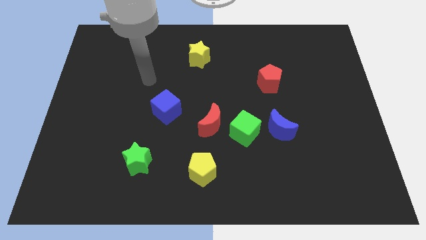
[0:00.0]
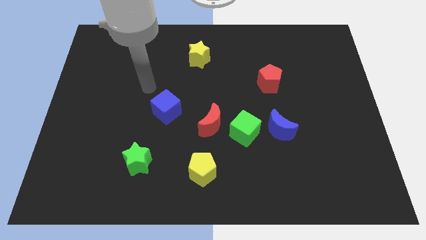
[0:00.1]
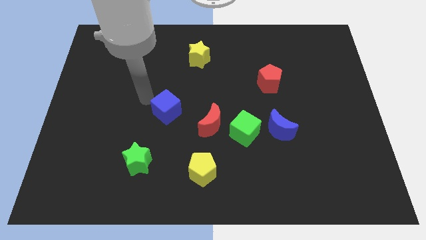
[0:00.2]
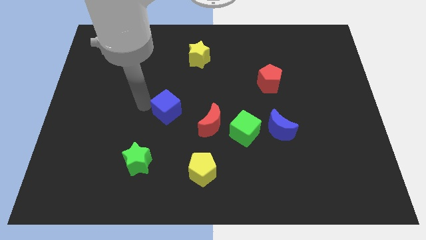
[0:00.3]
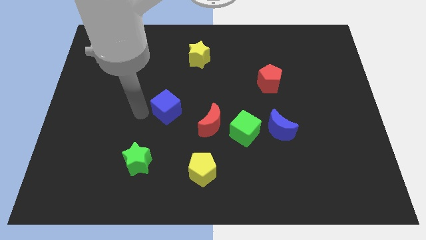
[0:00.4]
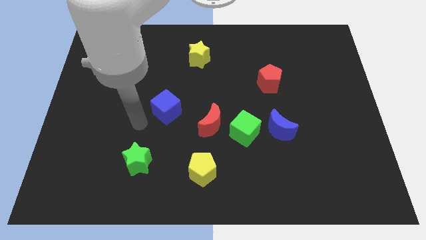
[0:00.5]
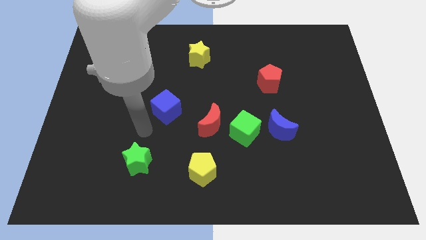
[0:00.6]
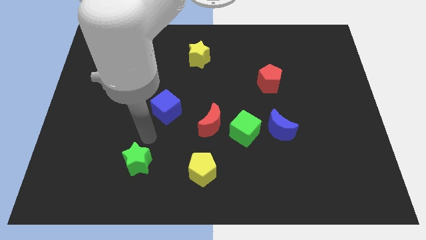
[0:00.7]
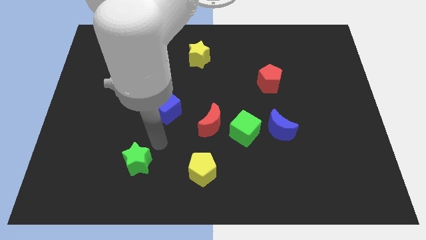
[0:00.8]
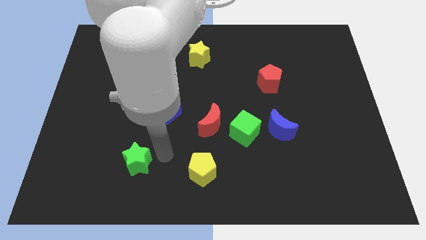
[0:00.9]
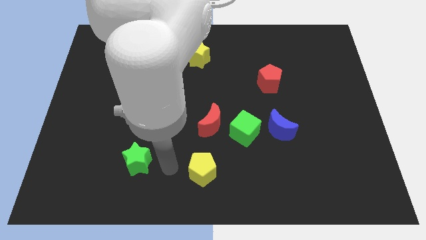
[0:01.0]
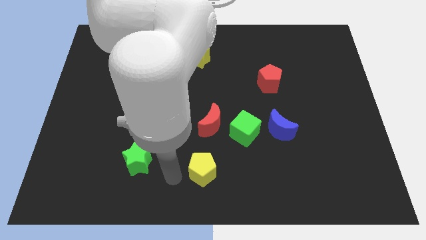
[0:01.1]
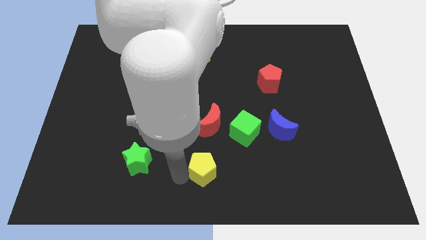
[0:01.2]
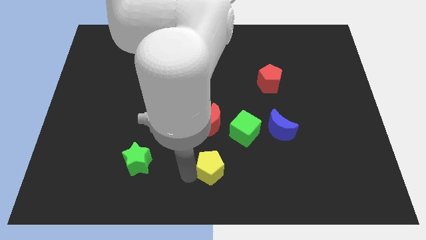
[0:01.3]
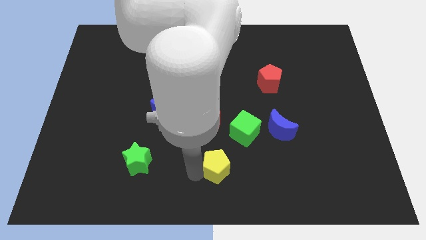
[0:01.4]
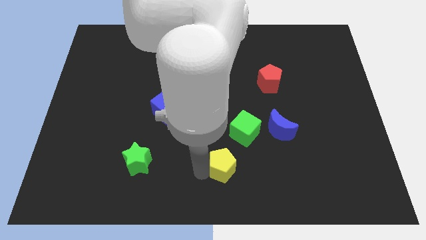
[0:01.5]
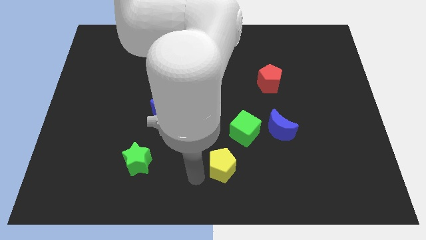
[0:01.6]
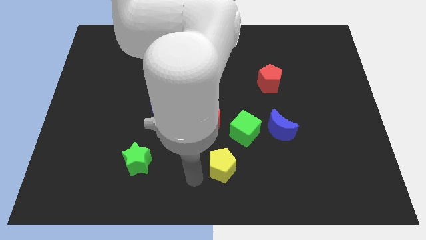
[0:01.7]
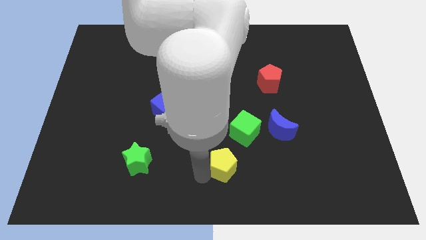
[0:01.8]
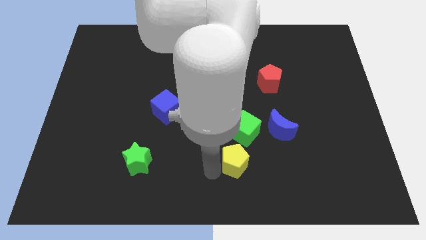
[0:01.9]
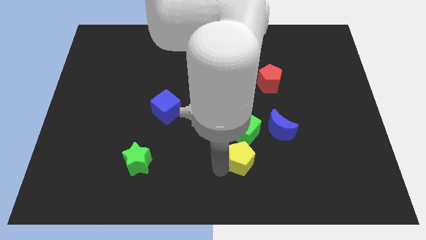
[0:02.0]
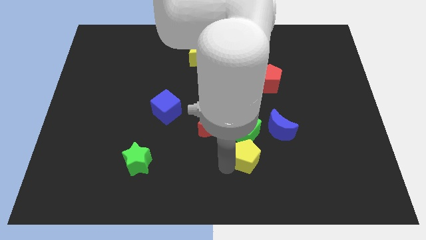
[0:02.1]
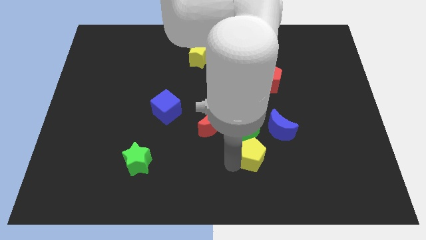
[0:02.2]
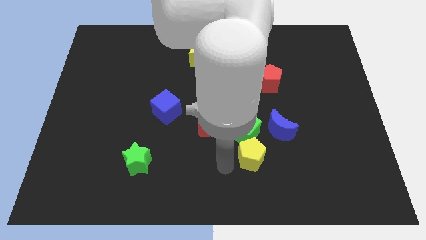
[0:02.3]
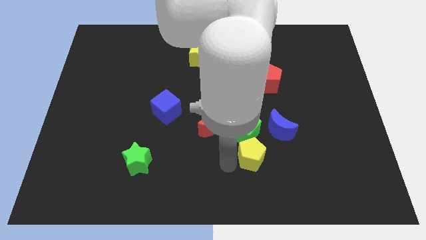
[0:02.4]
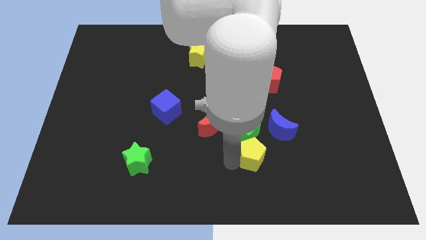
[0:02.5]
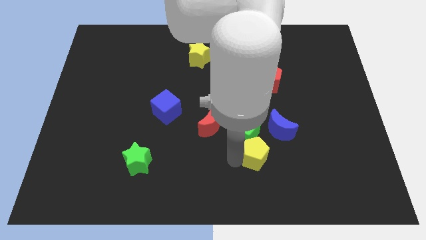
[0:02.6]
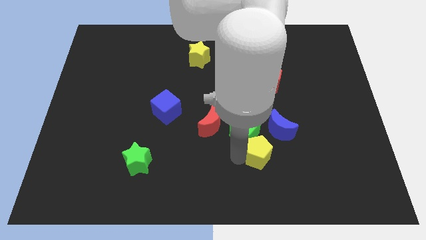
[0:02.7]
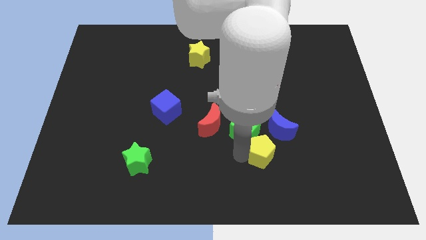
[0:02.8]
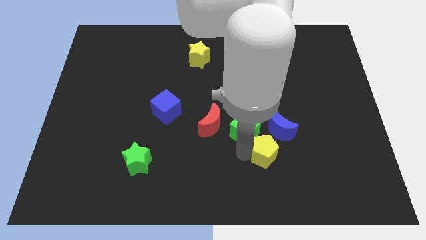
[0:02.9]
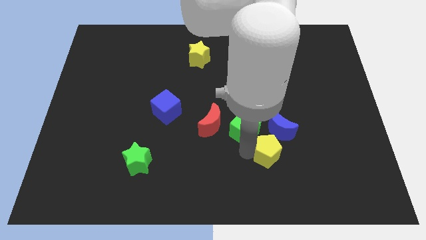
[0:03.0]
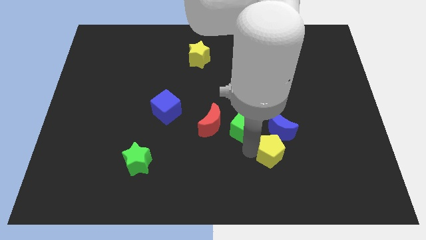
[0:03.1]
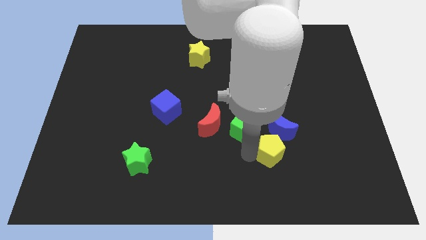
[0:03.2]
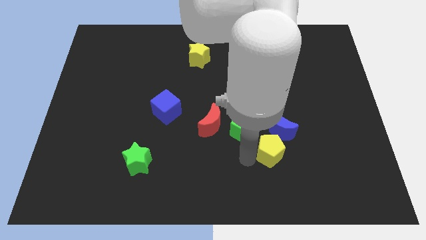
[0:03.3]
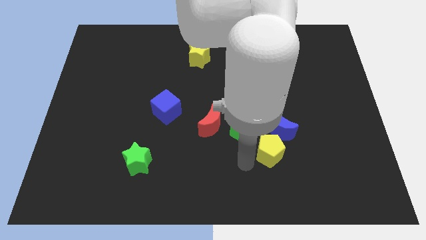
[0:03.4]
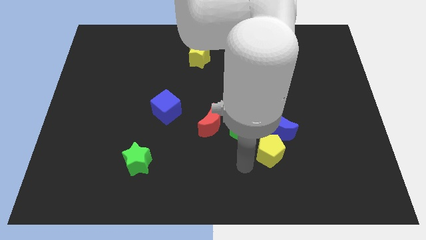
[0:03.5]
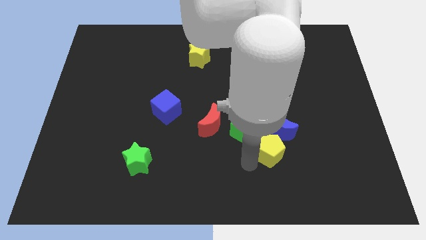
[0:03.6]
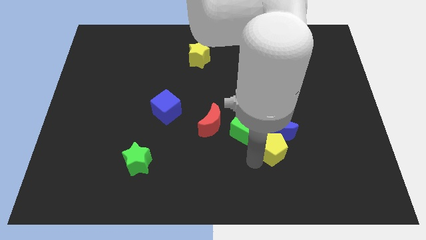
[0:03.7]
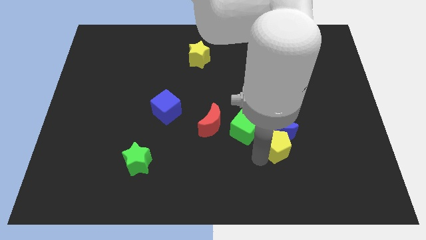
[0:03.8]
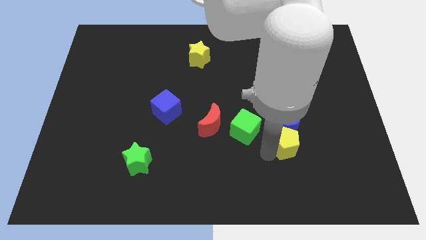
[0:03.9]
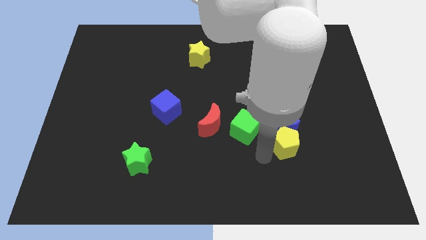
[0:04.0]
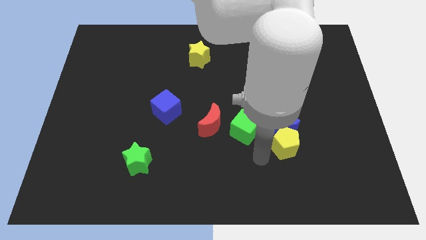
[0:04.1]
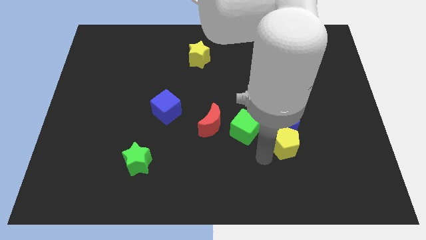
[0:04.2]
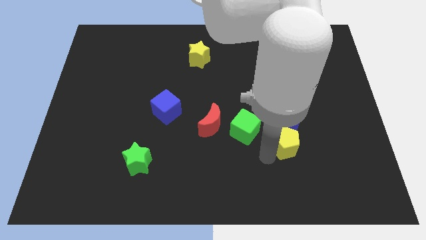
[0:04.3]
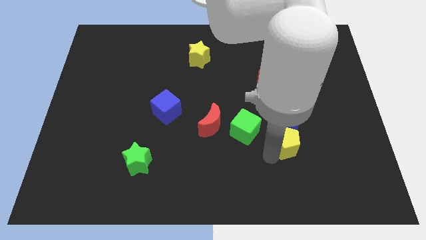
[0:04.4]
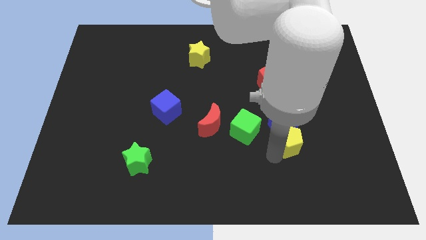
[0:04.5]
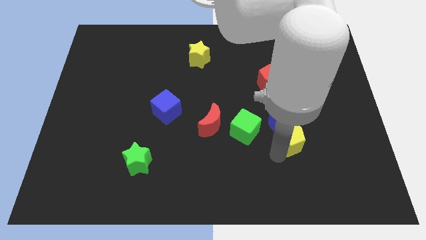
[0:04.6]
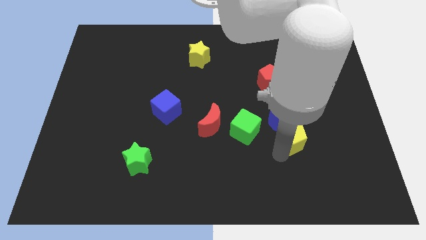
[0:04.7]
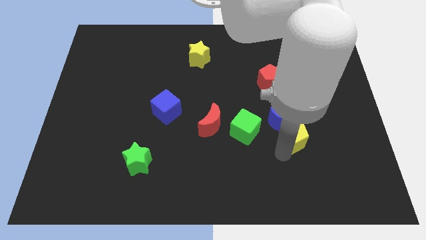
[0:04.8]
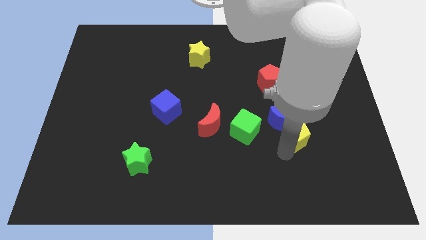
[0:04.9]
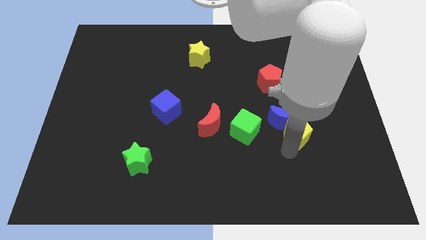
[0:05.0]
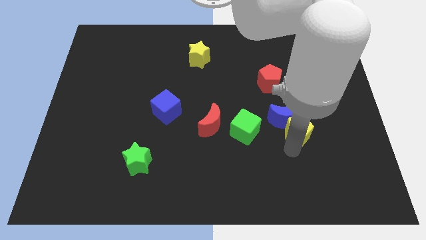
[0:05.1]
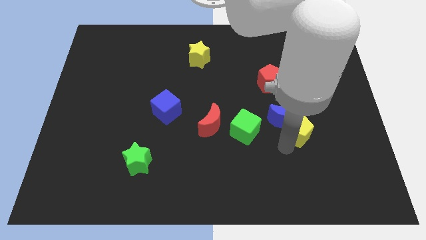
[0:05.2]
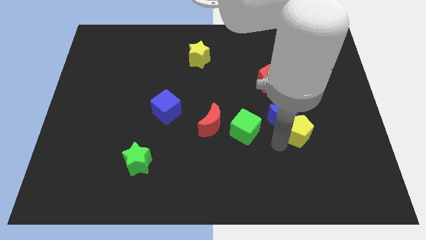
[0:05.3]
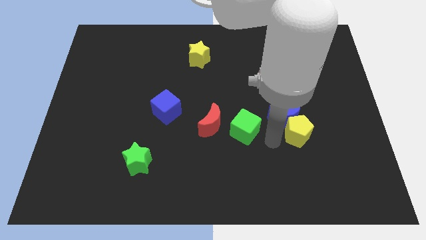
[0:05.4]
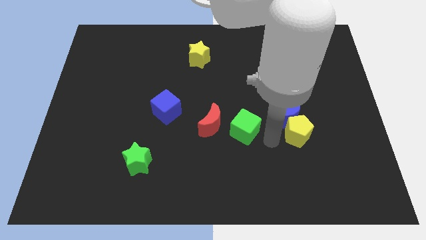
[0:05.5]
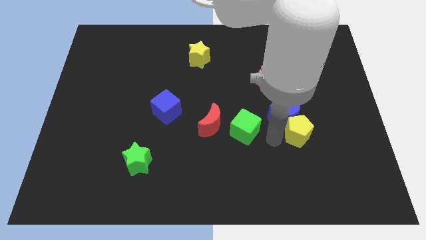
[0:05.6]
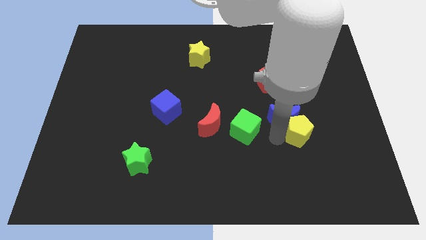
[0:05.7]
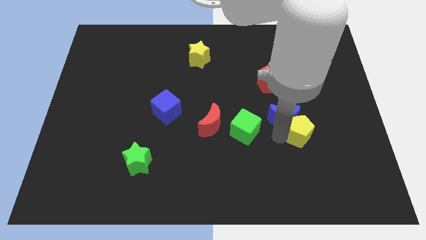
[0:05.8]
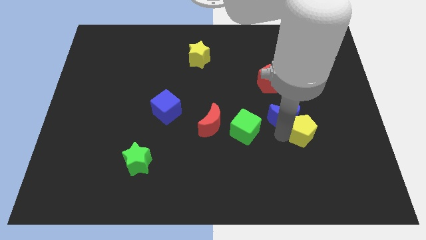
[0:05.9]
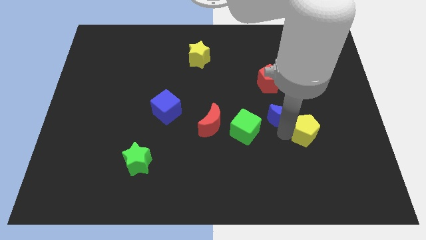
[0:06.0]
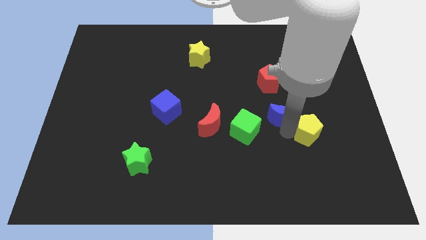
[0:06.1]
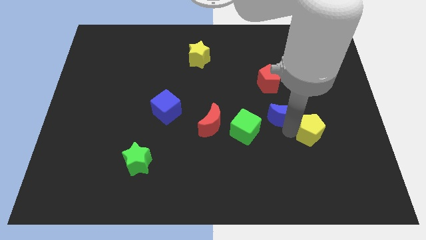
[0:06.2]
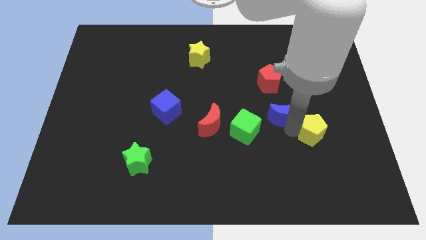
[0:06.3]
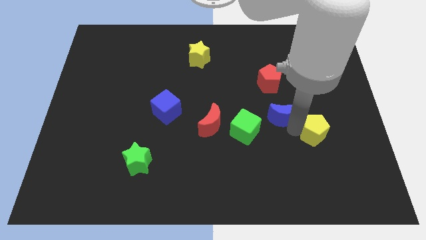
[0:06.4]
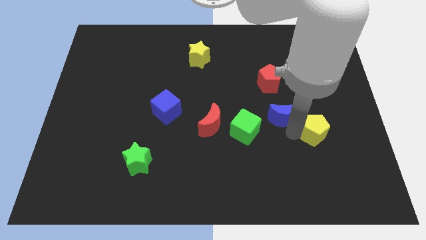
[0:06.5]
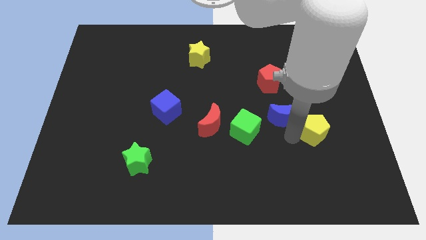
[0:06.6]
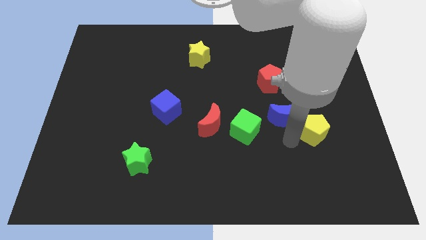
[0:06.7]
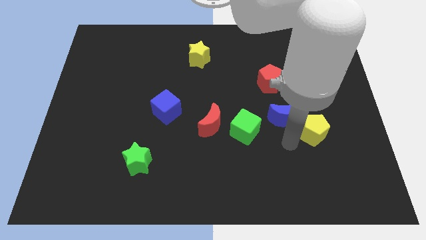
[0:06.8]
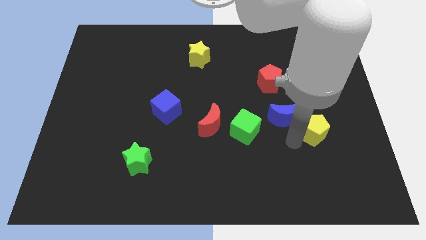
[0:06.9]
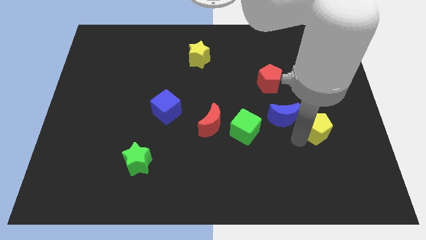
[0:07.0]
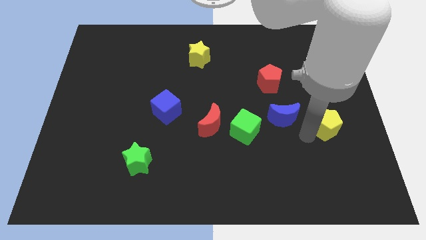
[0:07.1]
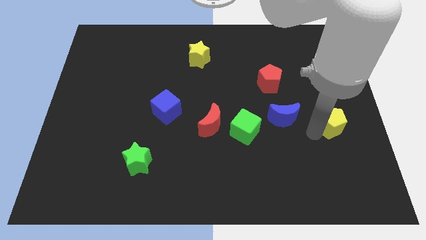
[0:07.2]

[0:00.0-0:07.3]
push the yellow pentagon to the center right
